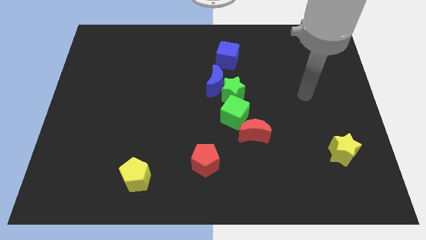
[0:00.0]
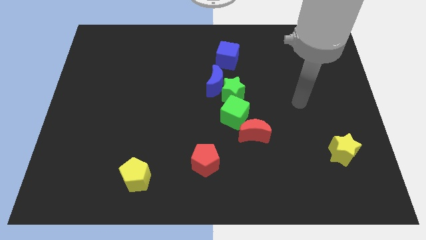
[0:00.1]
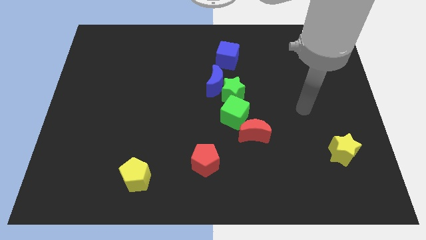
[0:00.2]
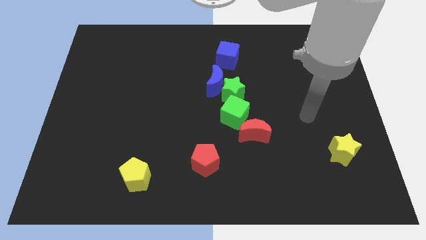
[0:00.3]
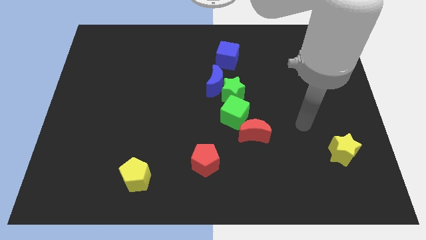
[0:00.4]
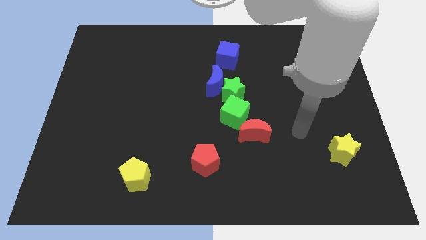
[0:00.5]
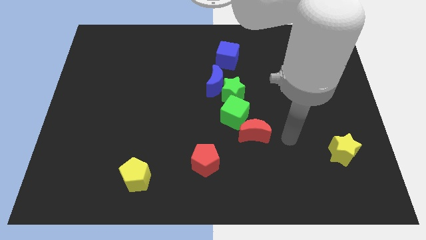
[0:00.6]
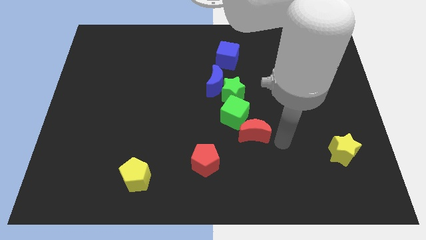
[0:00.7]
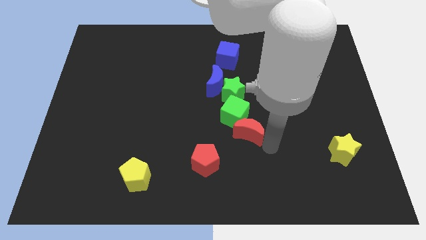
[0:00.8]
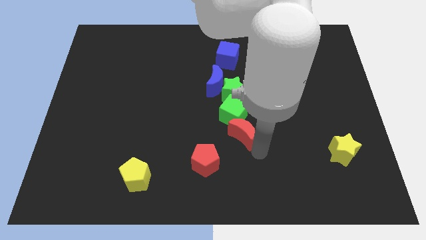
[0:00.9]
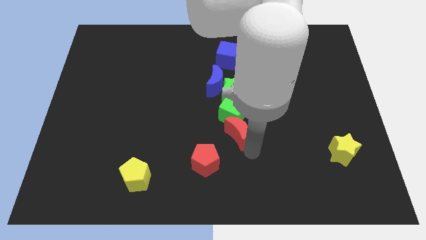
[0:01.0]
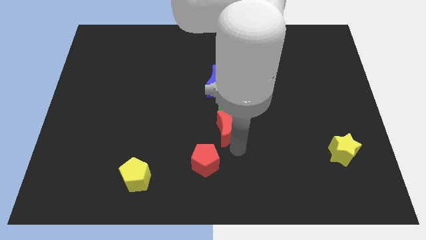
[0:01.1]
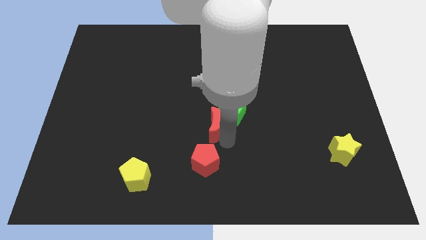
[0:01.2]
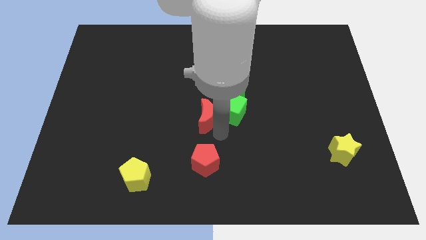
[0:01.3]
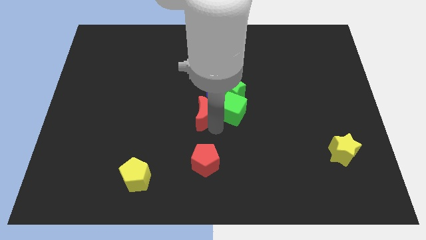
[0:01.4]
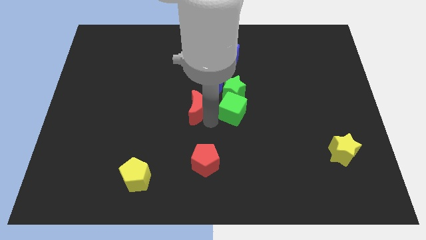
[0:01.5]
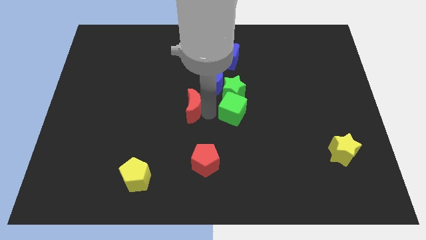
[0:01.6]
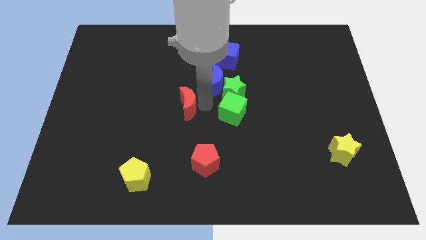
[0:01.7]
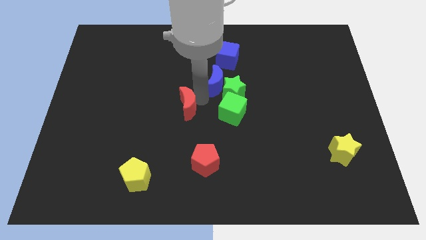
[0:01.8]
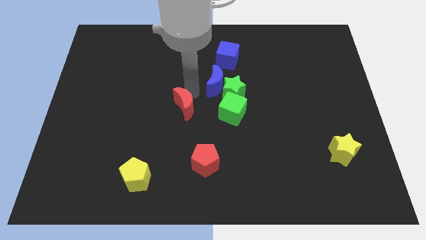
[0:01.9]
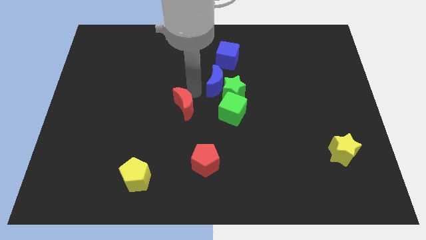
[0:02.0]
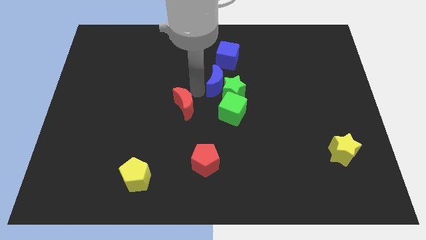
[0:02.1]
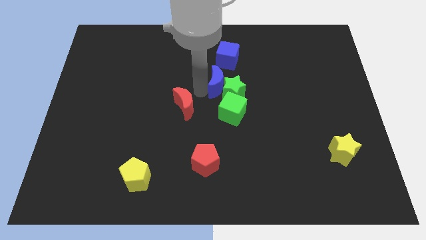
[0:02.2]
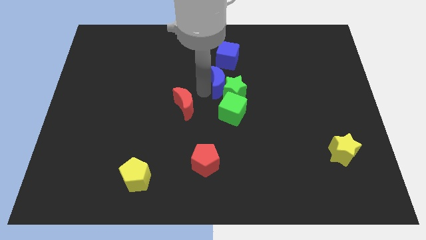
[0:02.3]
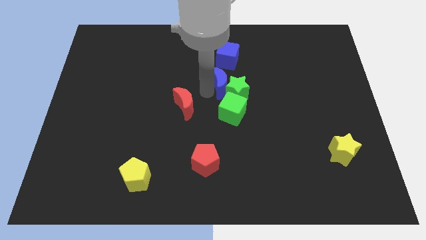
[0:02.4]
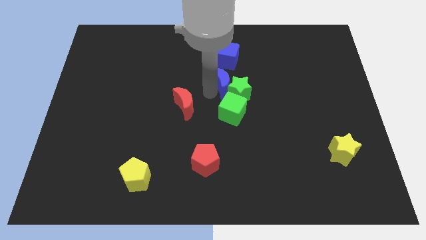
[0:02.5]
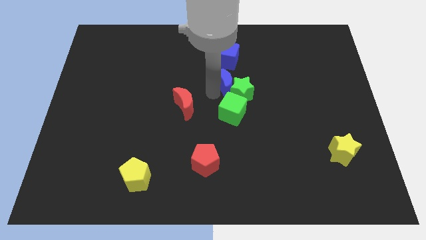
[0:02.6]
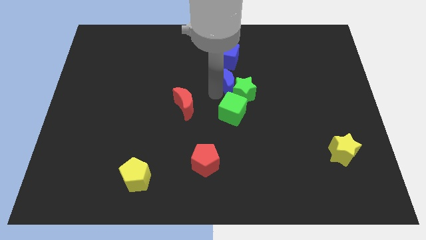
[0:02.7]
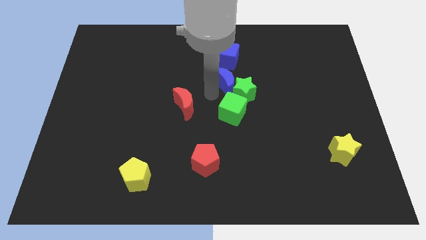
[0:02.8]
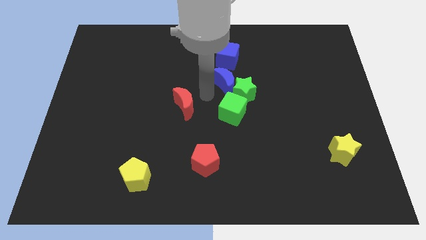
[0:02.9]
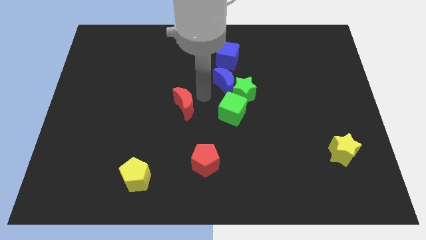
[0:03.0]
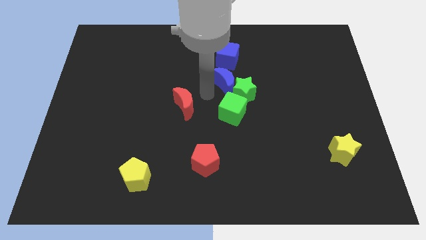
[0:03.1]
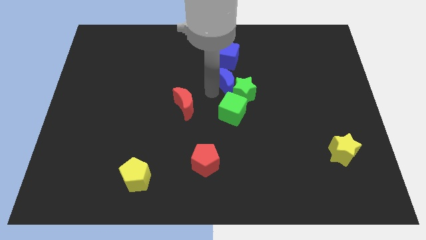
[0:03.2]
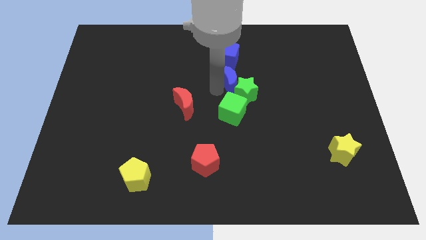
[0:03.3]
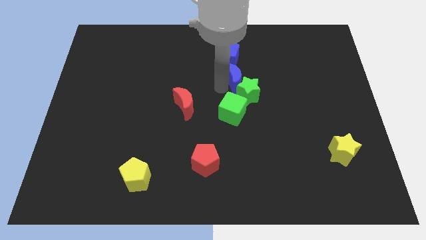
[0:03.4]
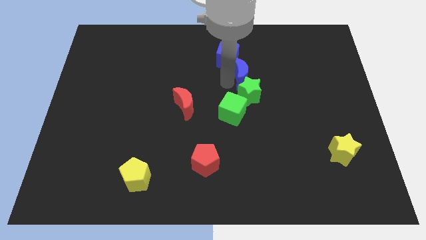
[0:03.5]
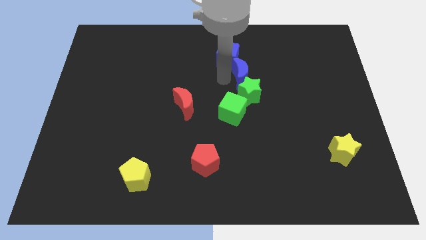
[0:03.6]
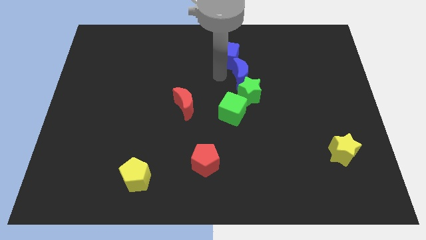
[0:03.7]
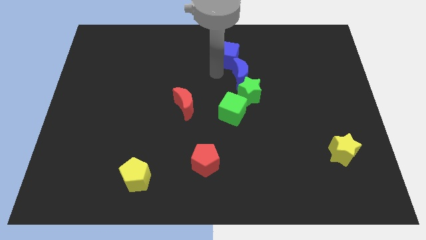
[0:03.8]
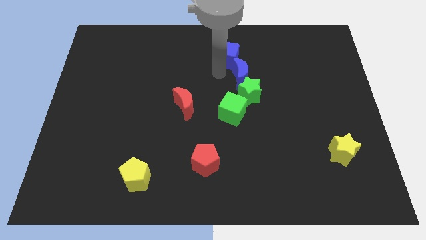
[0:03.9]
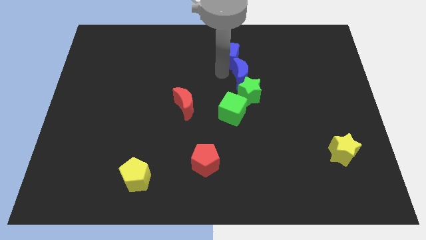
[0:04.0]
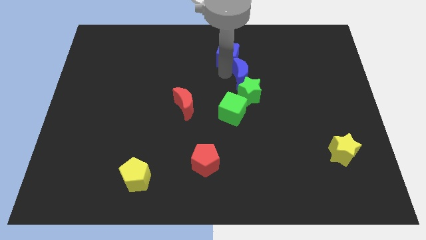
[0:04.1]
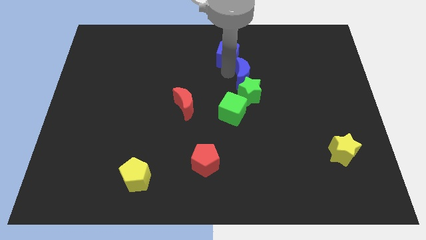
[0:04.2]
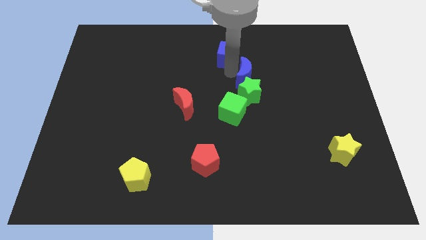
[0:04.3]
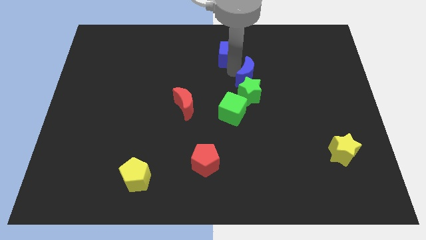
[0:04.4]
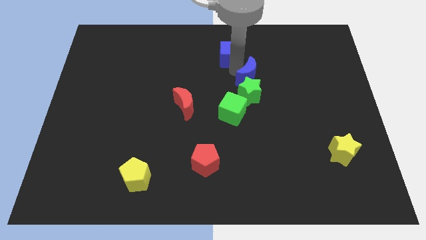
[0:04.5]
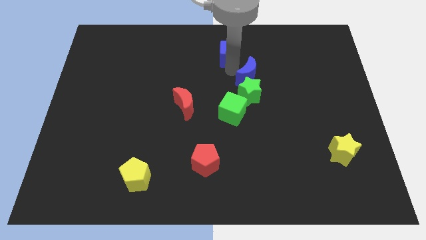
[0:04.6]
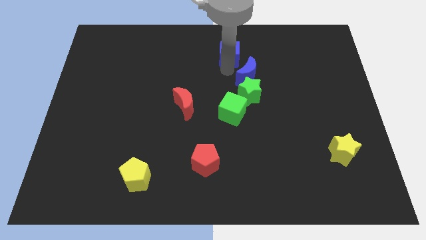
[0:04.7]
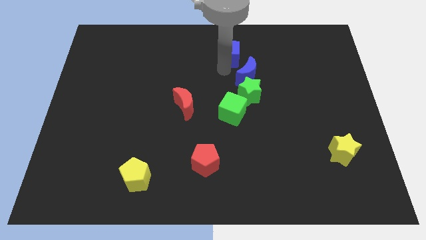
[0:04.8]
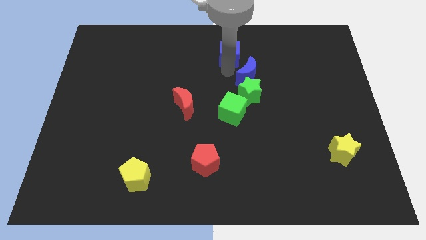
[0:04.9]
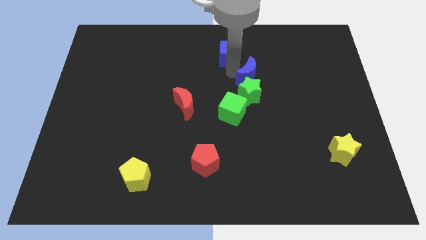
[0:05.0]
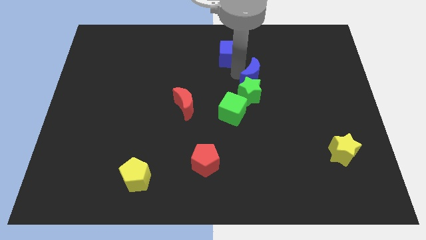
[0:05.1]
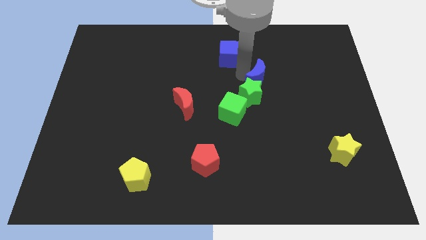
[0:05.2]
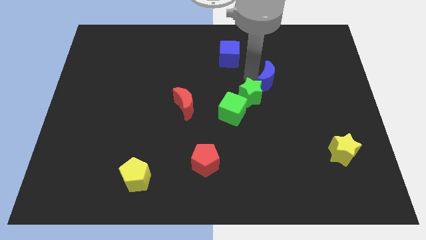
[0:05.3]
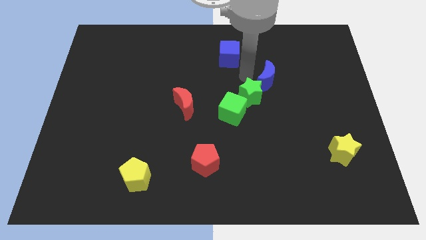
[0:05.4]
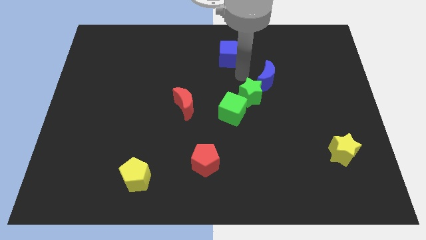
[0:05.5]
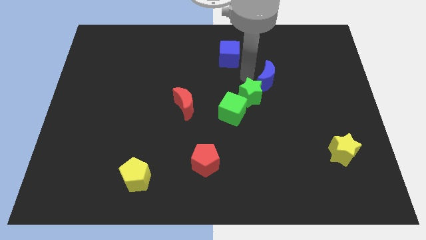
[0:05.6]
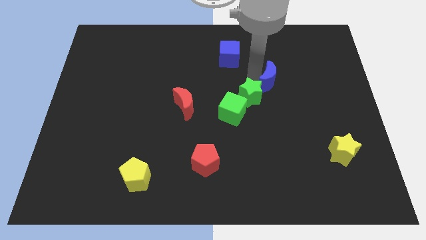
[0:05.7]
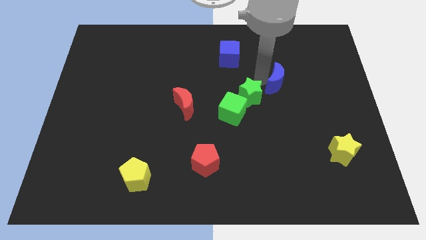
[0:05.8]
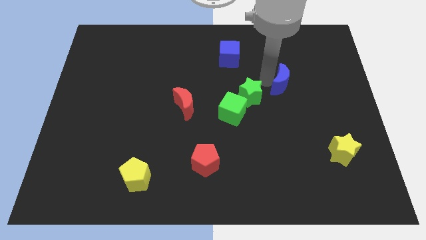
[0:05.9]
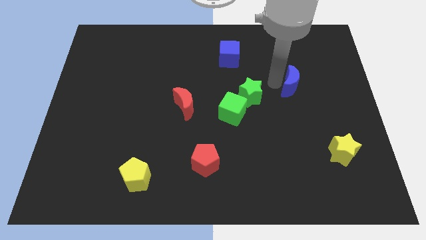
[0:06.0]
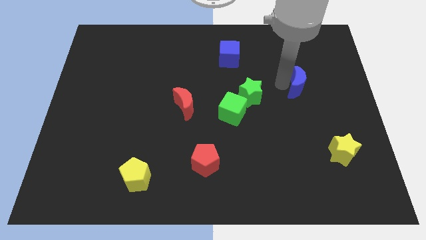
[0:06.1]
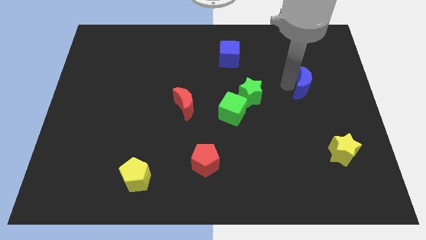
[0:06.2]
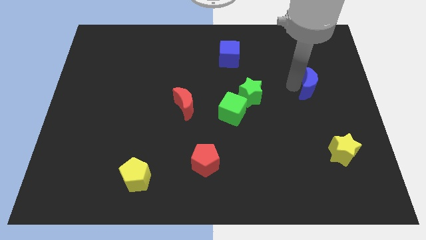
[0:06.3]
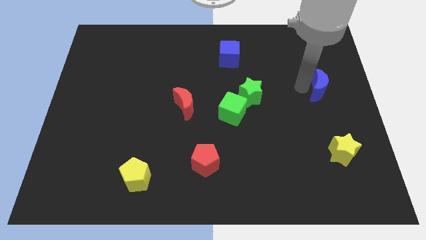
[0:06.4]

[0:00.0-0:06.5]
move the blue moon to the center right

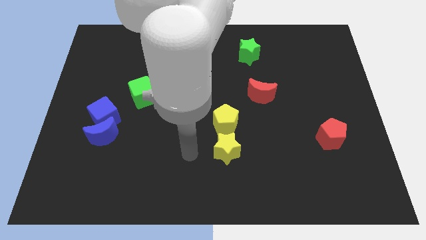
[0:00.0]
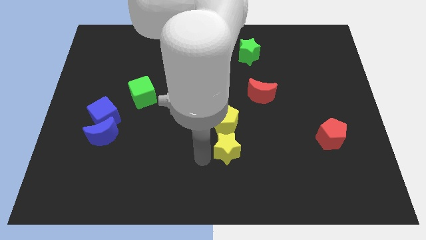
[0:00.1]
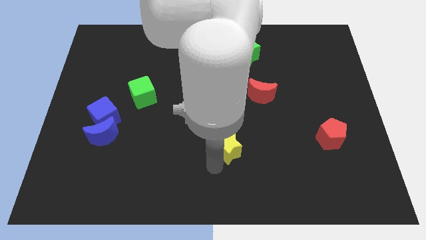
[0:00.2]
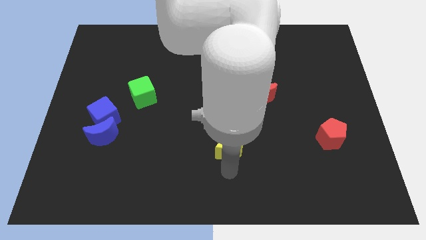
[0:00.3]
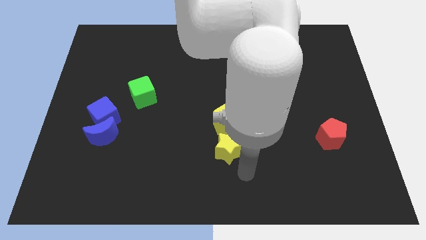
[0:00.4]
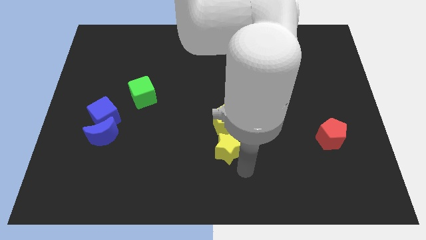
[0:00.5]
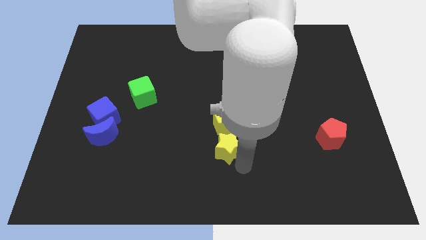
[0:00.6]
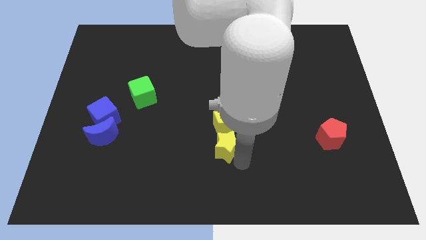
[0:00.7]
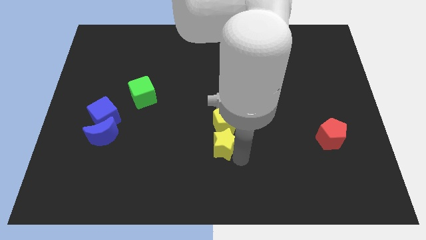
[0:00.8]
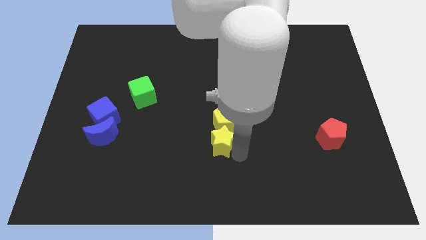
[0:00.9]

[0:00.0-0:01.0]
slide the yellow star to the center
